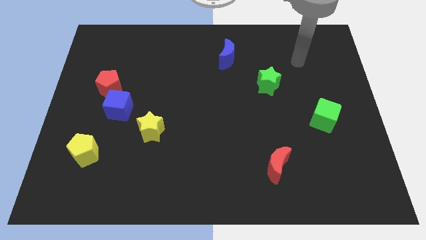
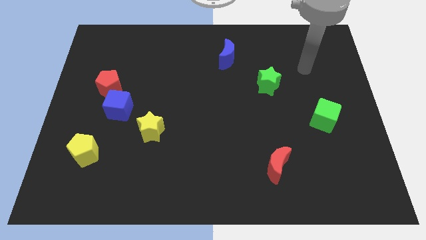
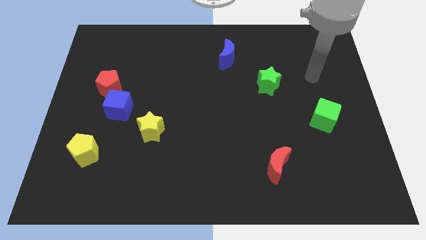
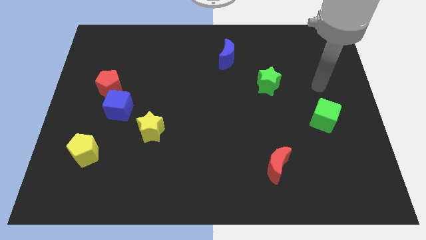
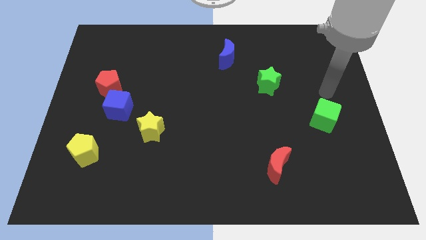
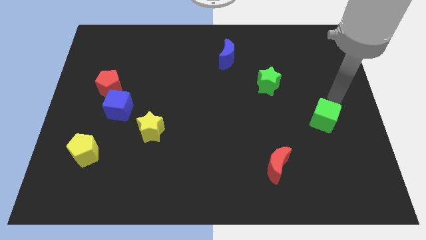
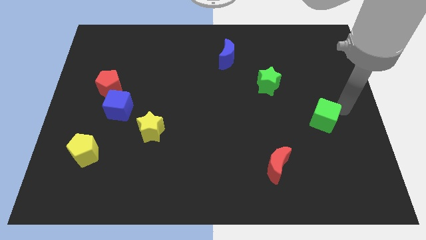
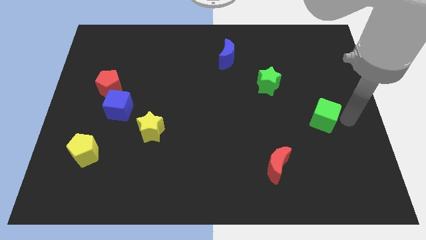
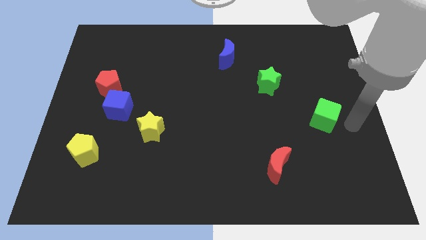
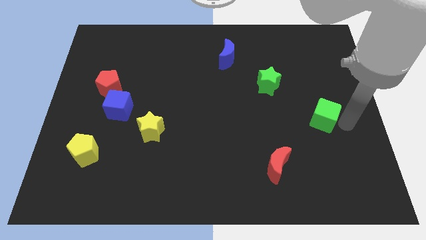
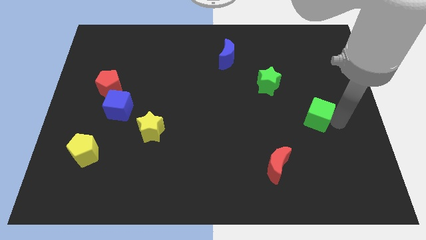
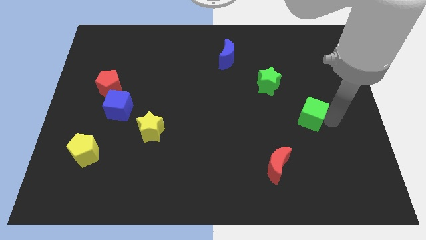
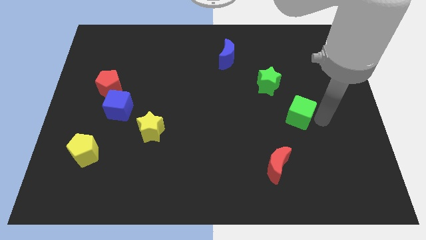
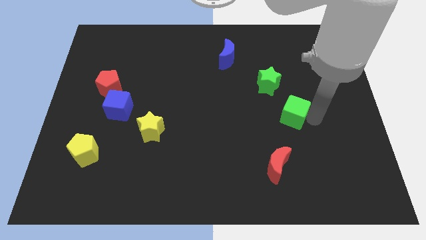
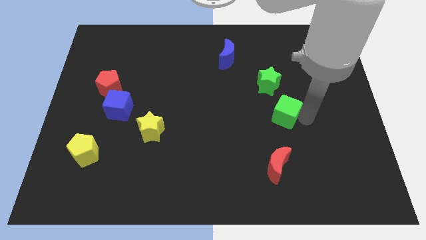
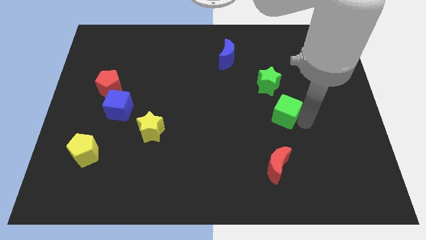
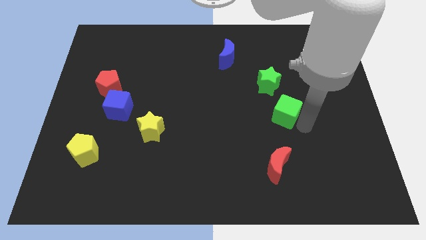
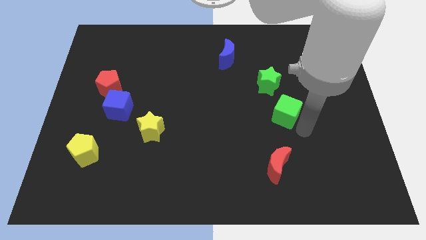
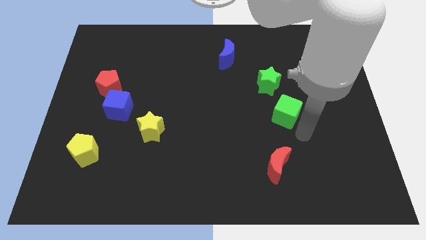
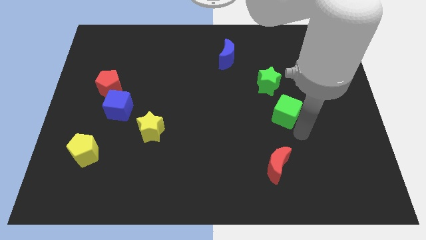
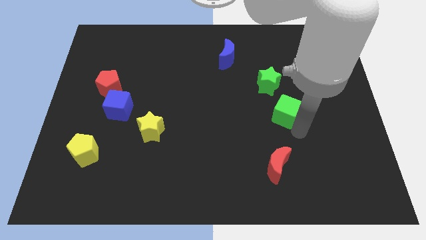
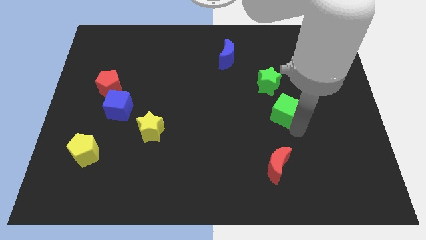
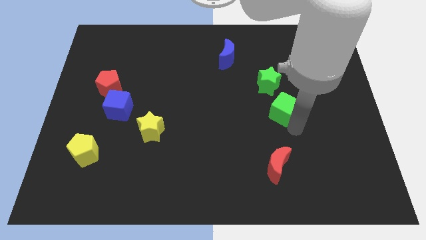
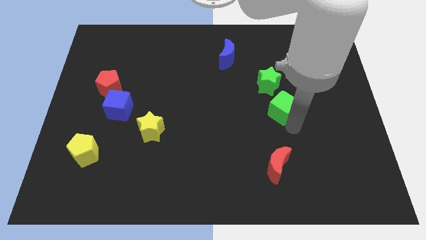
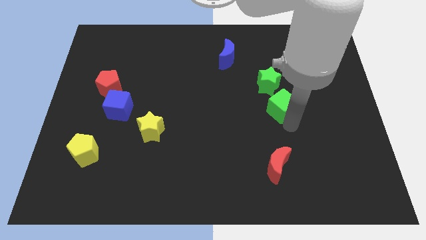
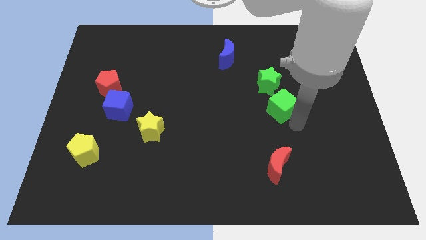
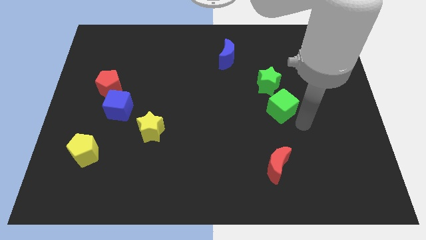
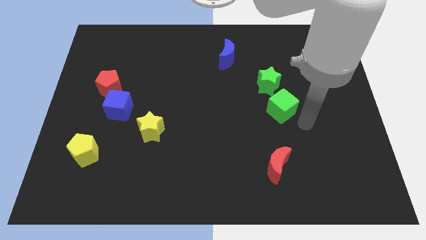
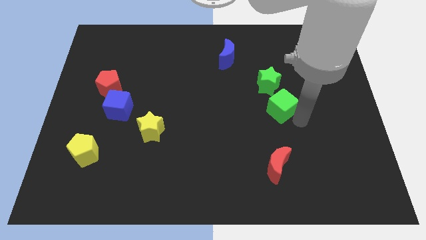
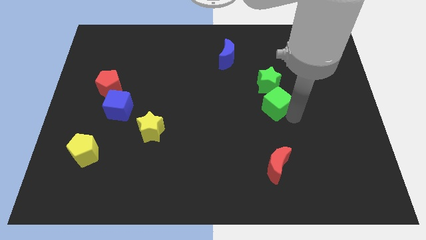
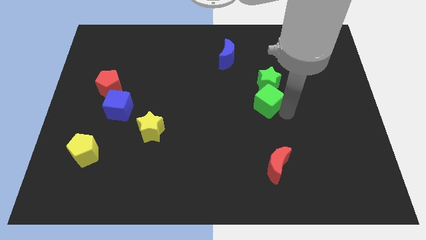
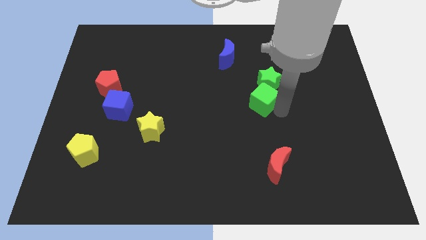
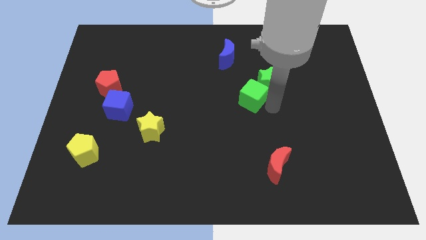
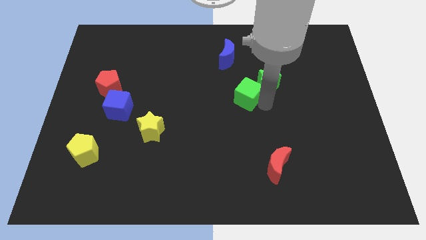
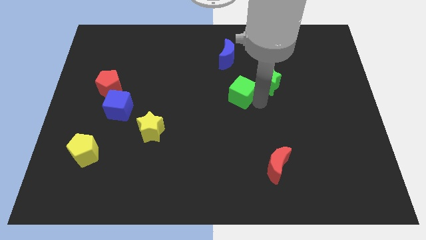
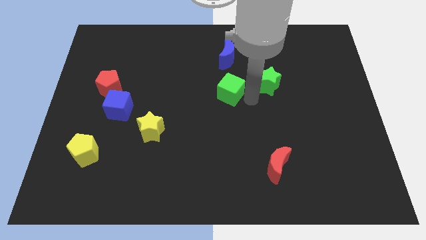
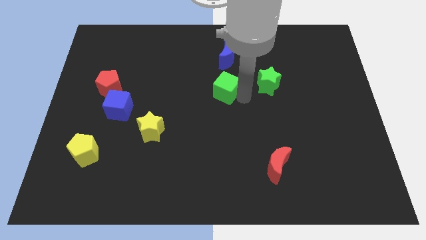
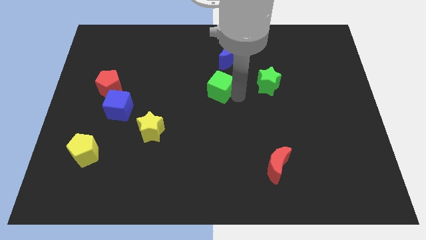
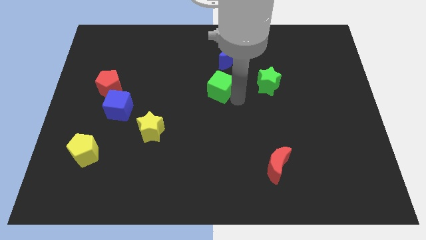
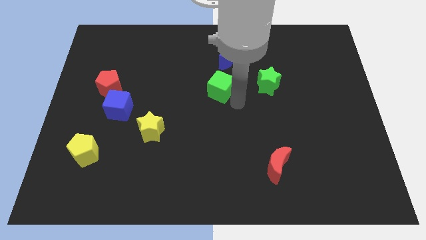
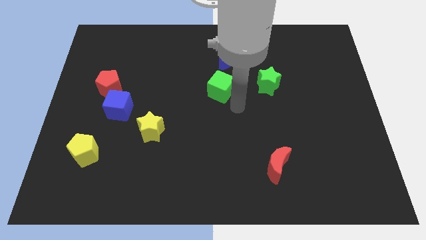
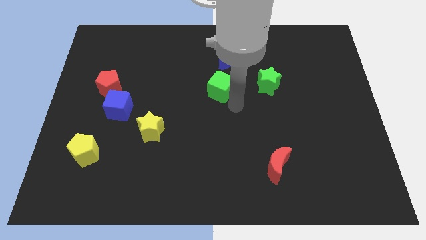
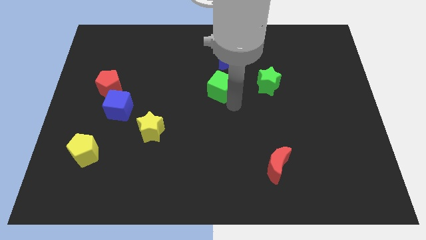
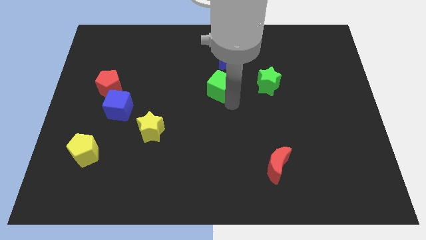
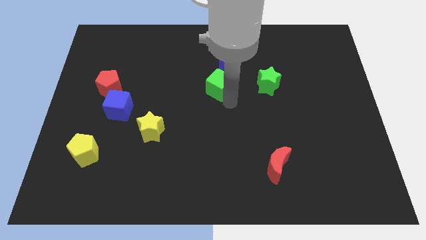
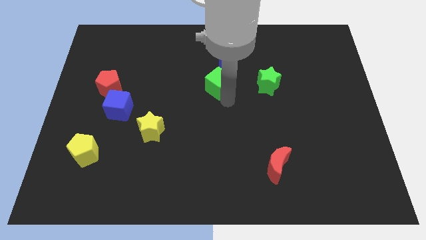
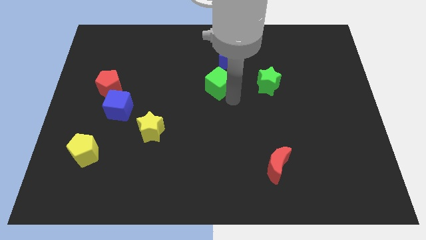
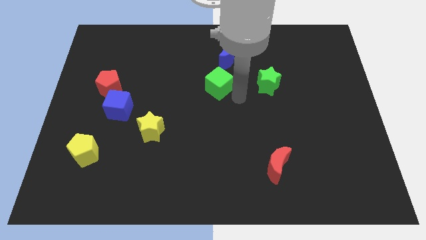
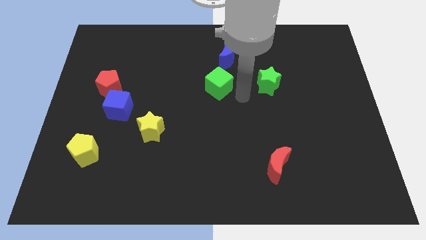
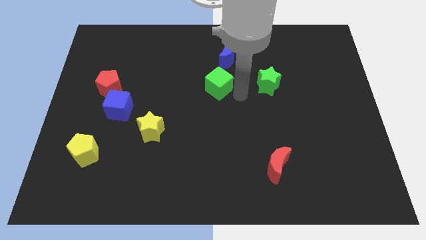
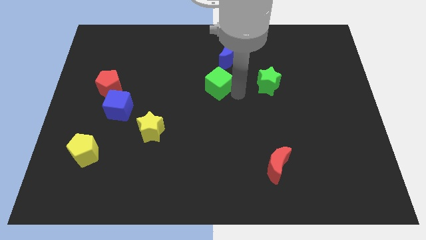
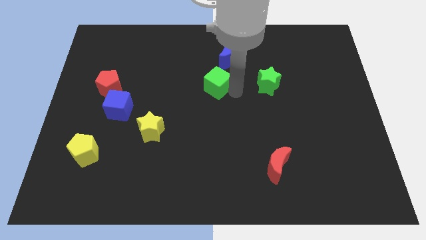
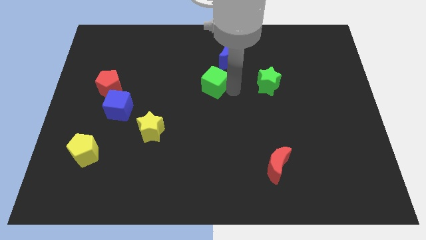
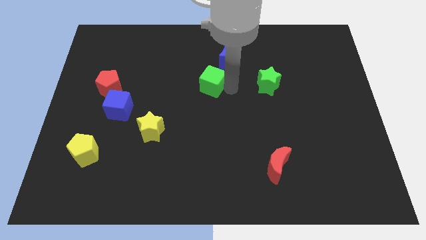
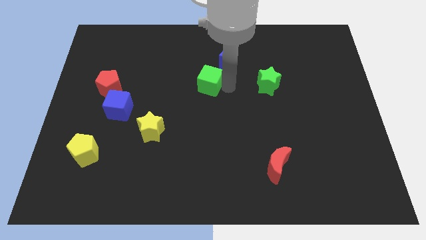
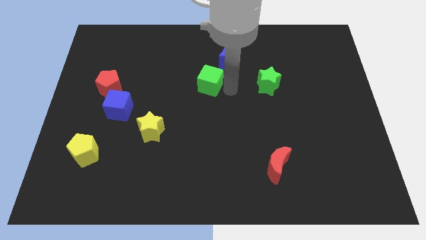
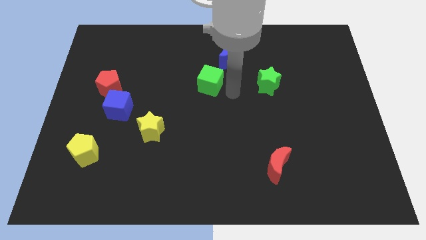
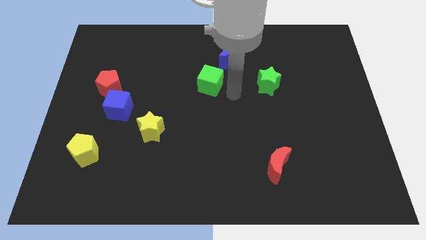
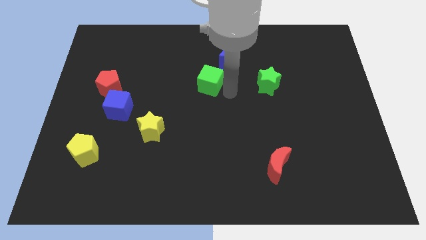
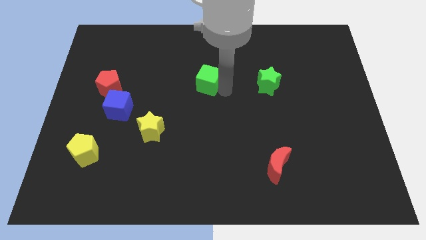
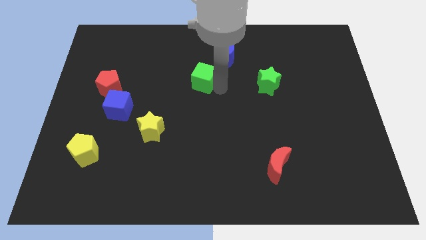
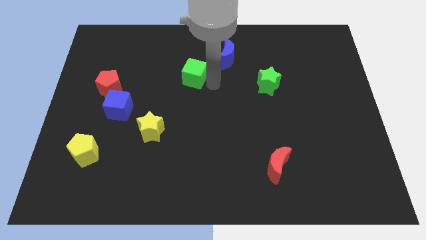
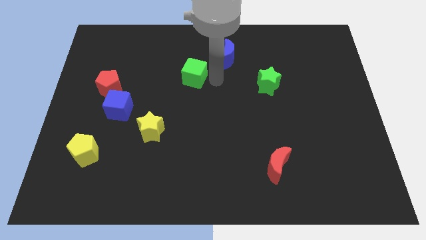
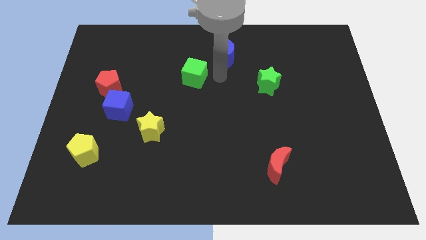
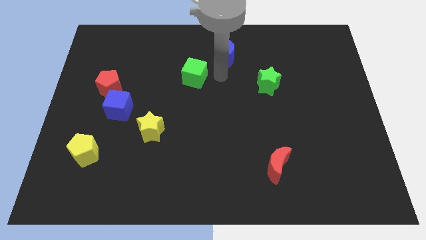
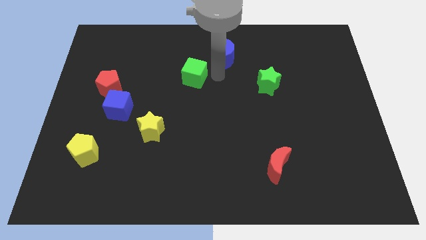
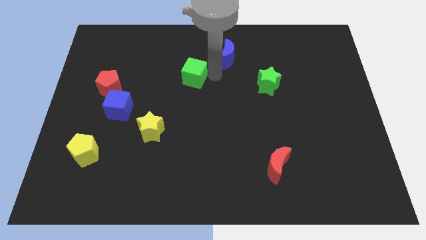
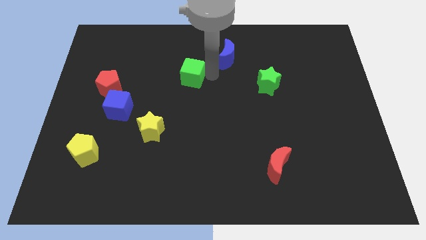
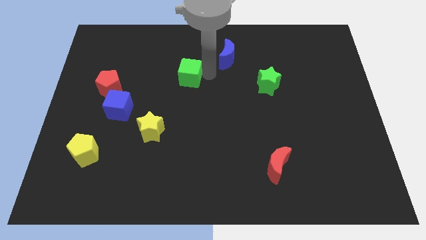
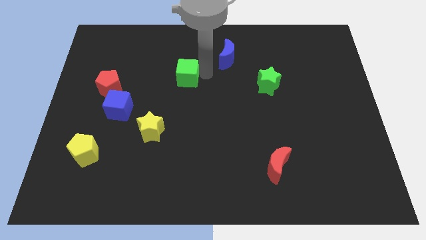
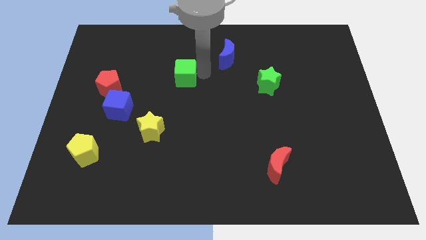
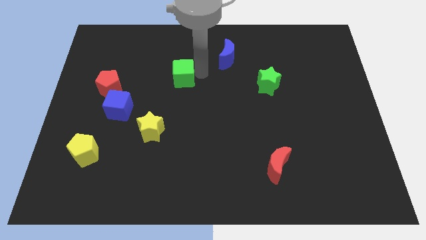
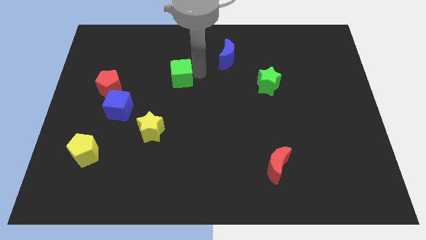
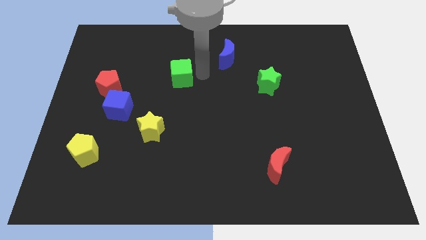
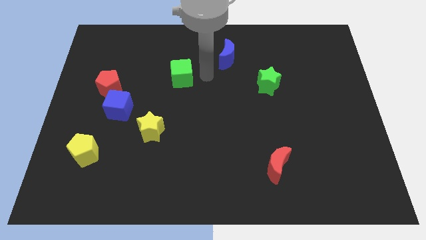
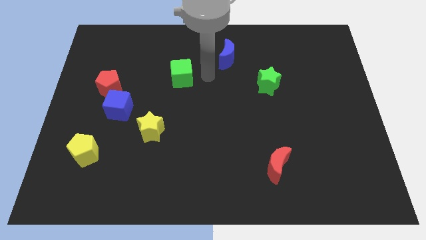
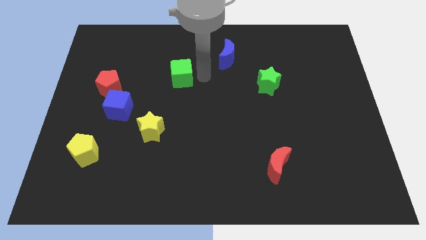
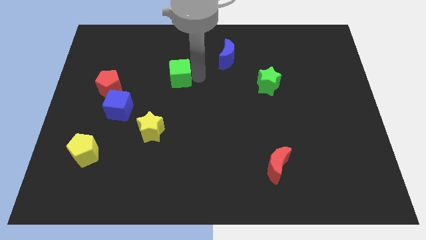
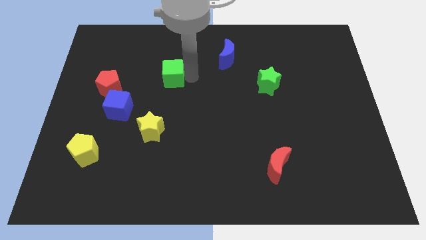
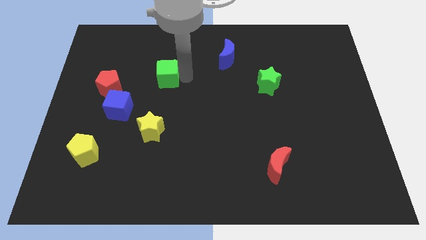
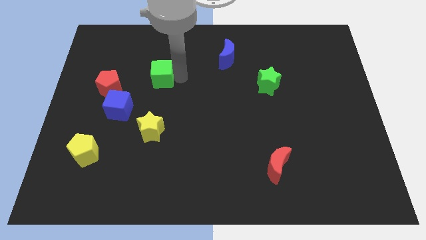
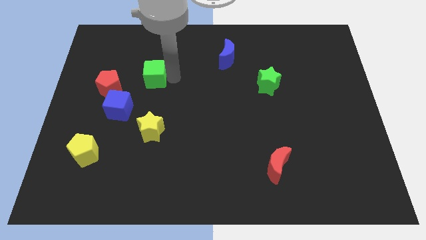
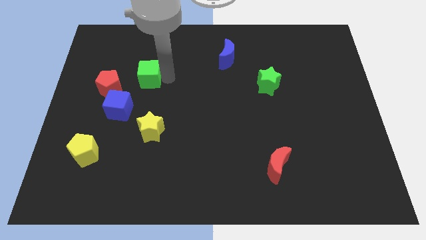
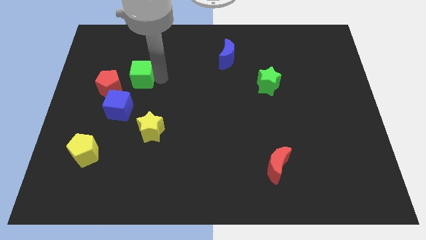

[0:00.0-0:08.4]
slide the green cube to the top of the blue cube
